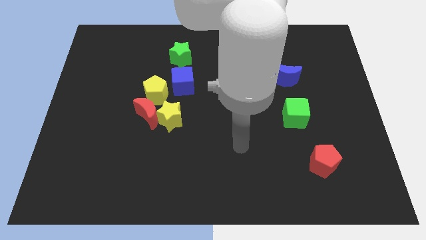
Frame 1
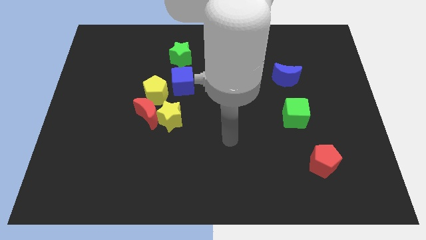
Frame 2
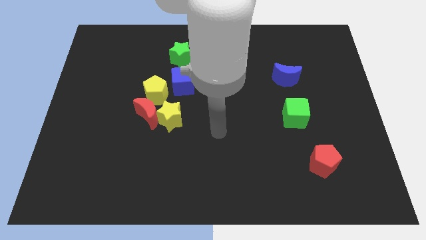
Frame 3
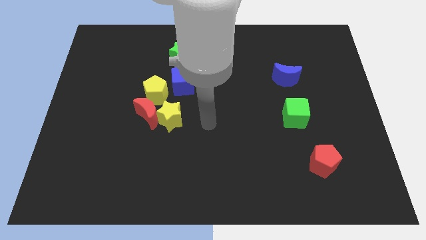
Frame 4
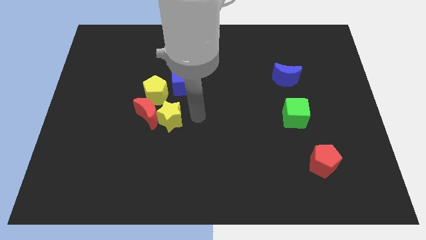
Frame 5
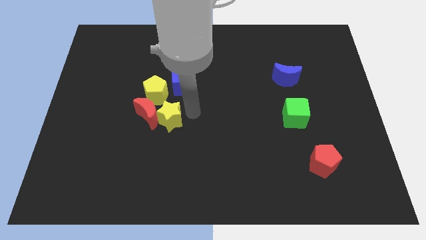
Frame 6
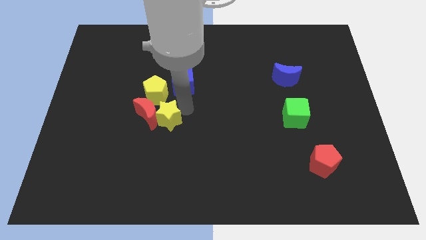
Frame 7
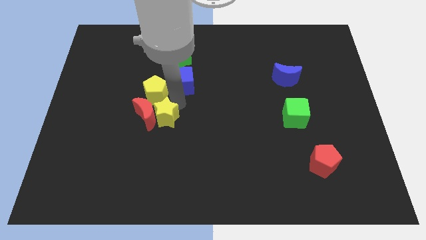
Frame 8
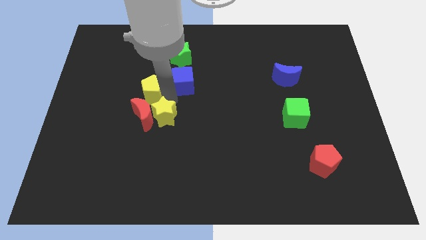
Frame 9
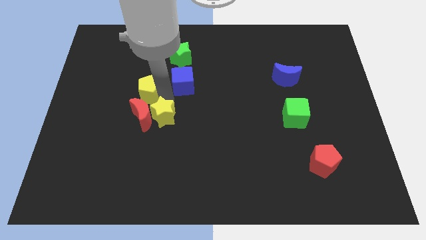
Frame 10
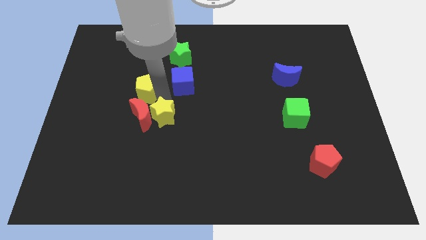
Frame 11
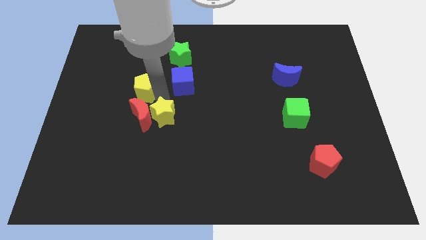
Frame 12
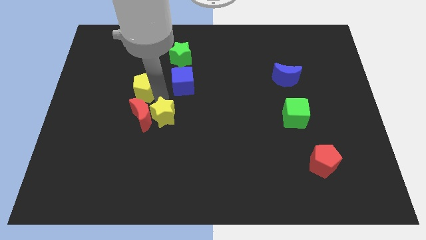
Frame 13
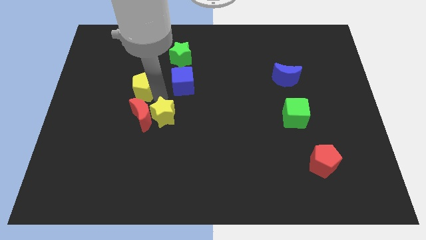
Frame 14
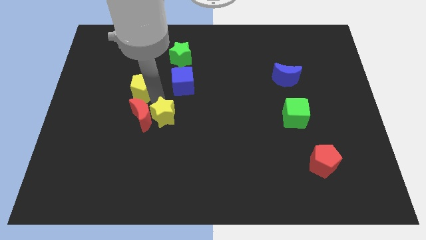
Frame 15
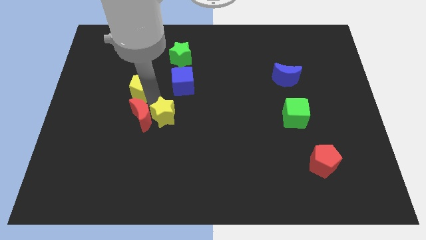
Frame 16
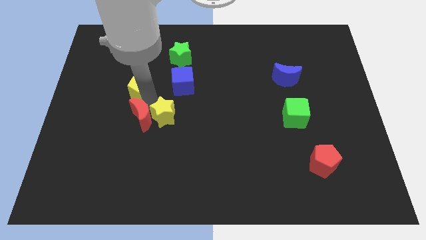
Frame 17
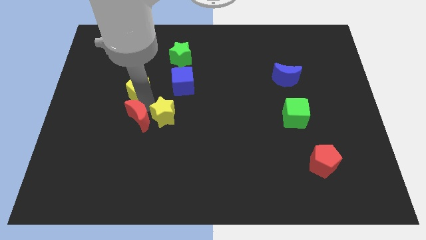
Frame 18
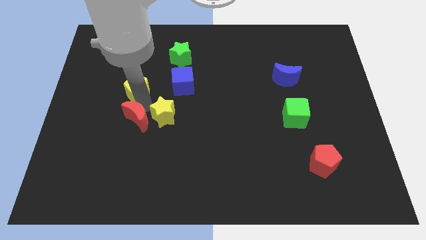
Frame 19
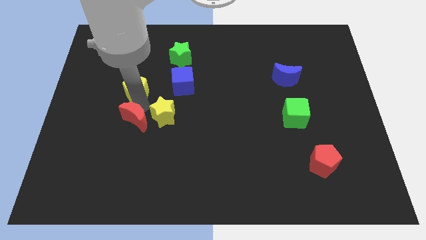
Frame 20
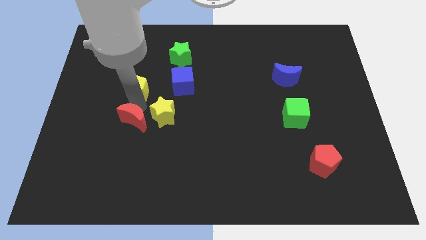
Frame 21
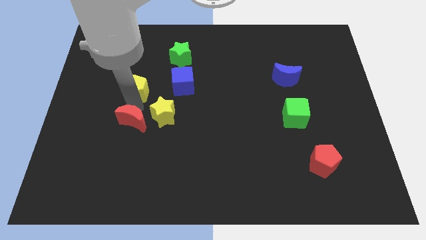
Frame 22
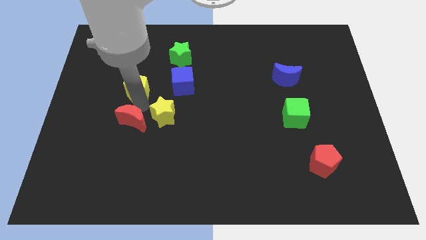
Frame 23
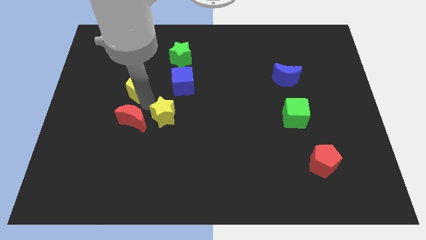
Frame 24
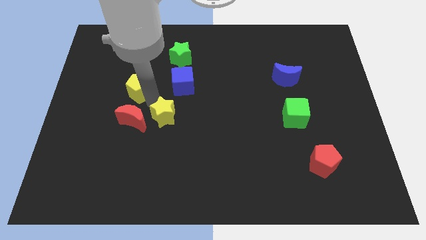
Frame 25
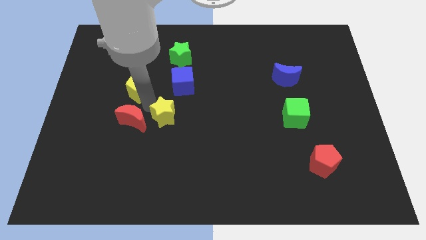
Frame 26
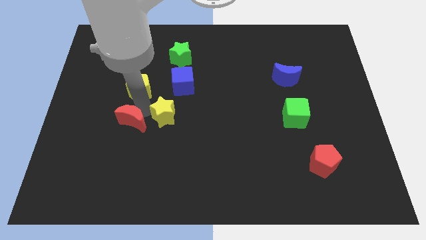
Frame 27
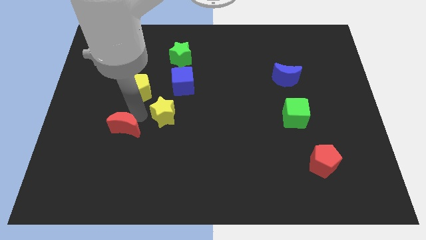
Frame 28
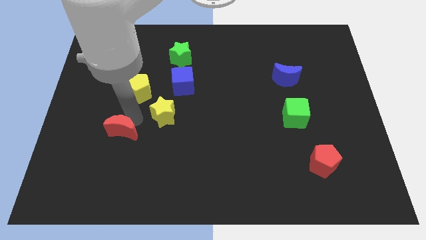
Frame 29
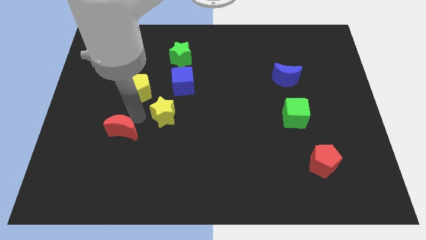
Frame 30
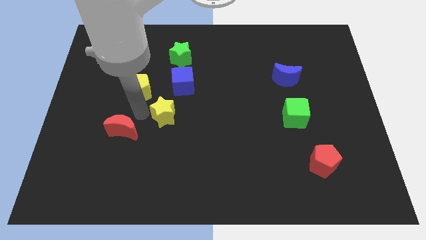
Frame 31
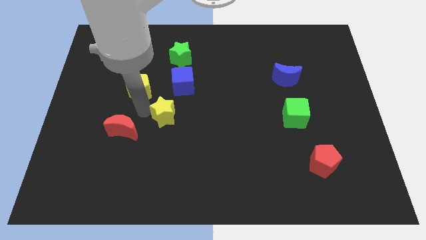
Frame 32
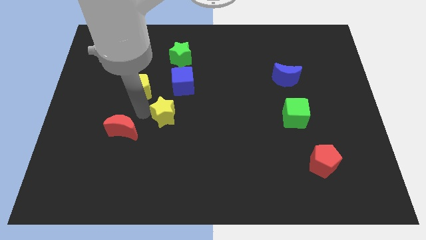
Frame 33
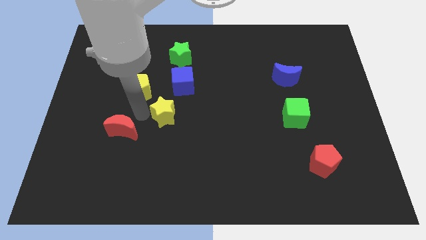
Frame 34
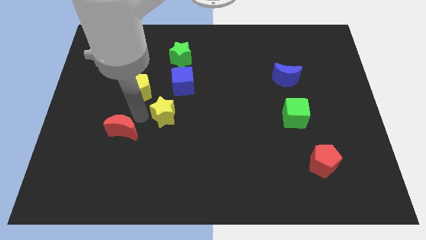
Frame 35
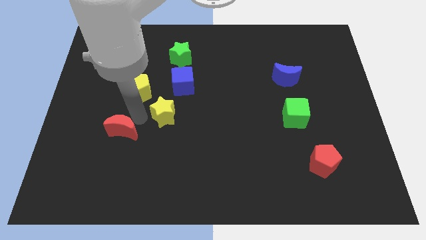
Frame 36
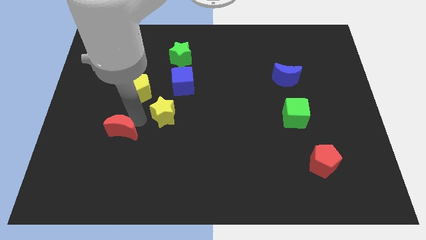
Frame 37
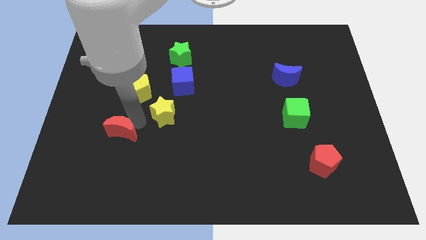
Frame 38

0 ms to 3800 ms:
separate the red moon from the yellow star and yellow pentagon

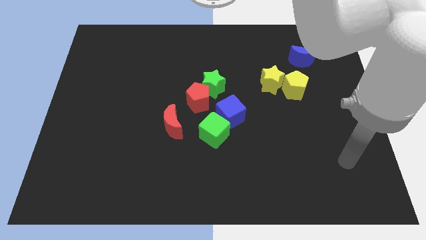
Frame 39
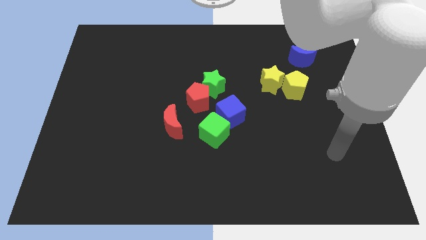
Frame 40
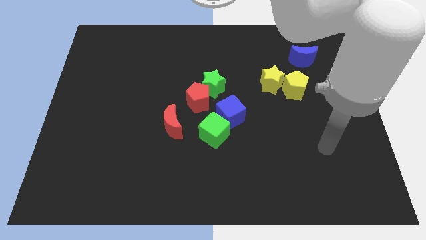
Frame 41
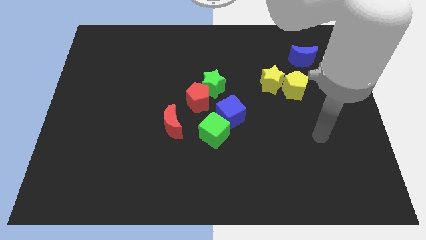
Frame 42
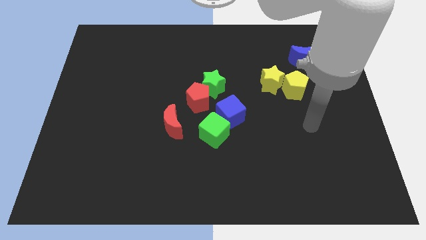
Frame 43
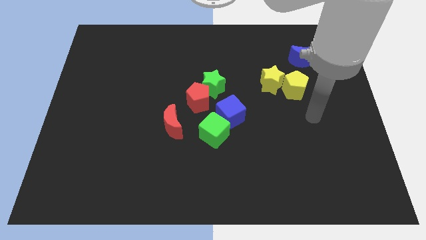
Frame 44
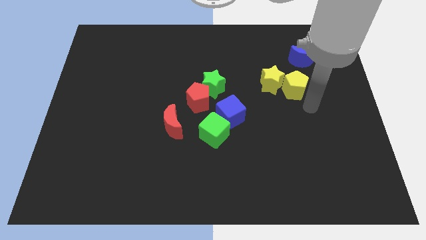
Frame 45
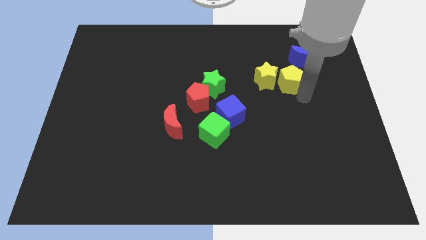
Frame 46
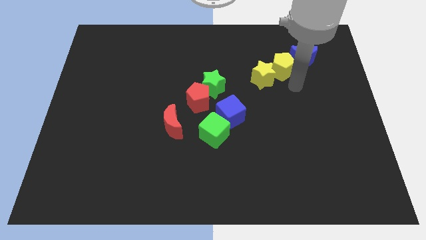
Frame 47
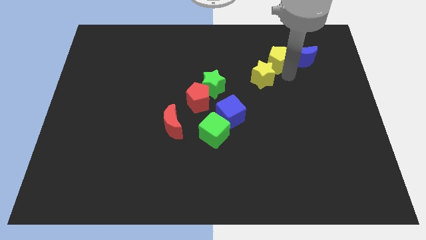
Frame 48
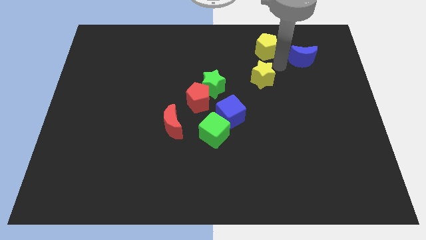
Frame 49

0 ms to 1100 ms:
separate the yellow star from the yellow pentagon

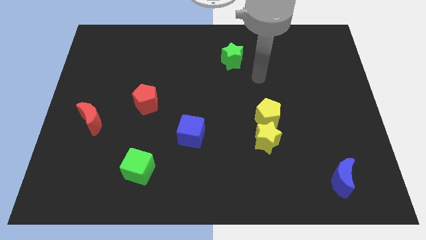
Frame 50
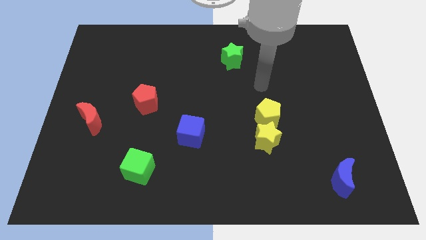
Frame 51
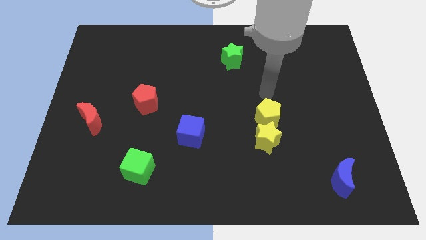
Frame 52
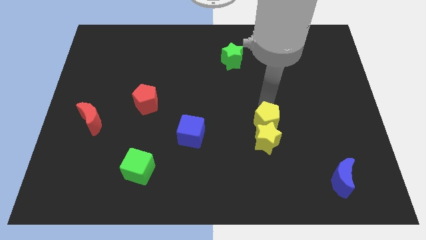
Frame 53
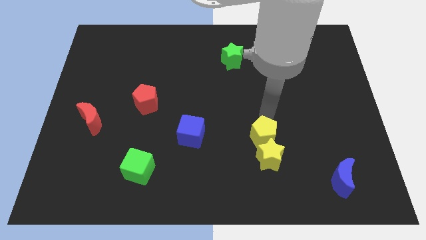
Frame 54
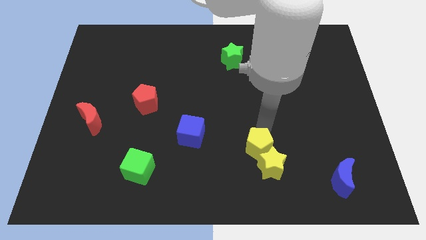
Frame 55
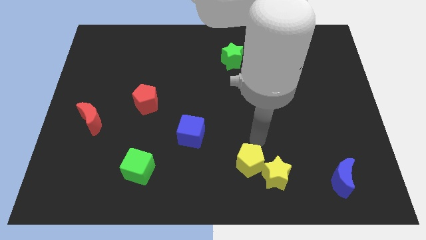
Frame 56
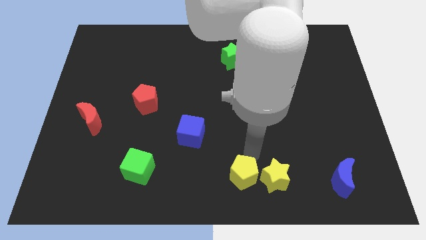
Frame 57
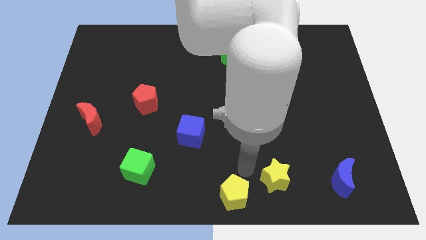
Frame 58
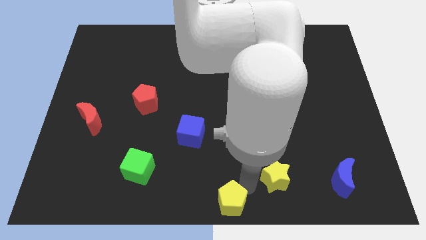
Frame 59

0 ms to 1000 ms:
pull the yellow star apart from the yellow pentagon

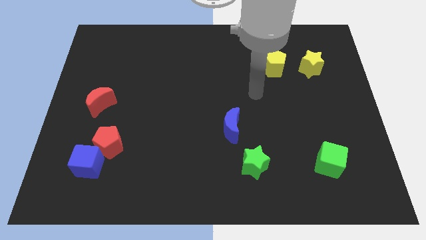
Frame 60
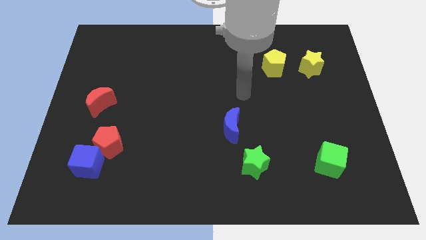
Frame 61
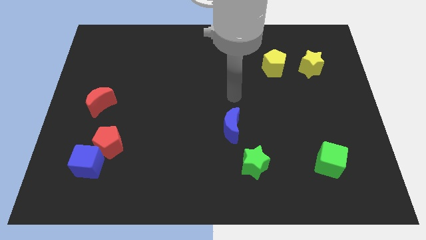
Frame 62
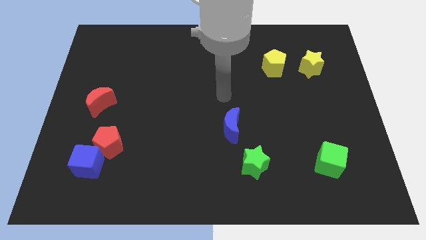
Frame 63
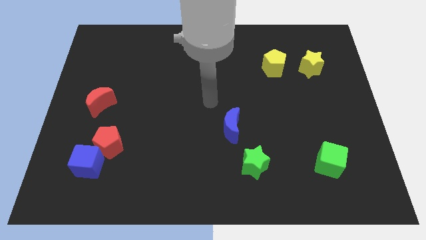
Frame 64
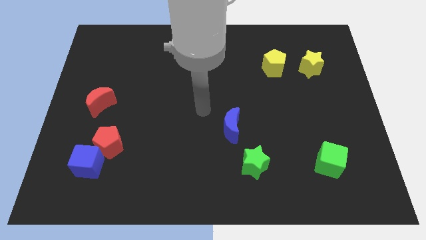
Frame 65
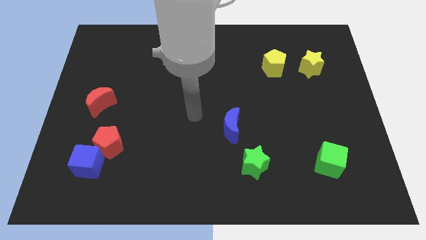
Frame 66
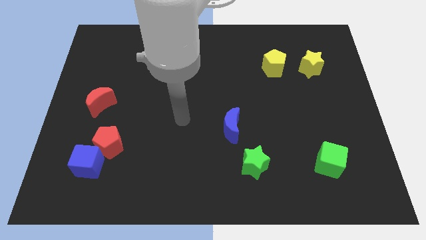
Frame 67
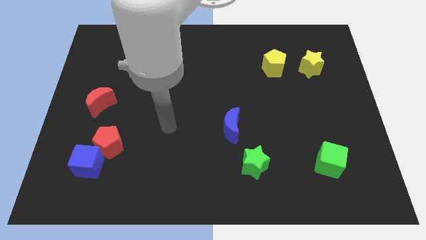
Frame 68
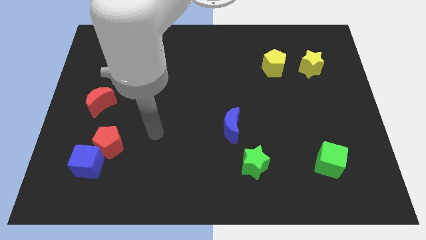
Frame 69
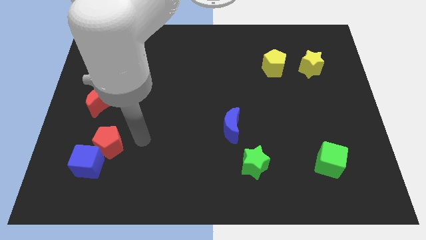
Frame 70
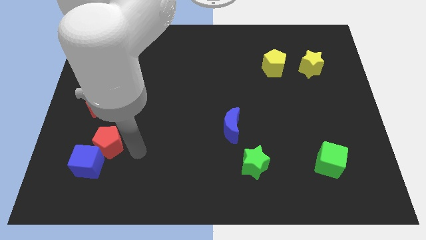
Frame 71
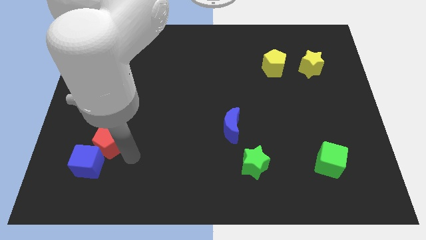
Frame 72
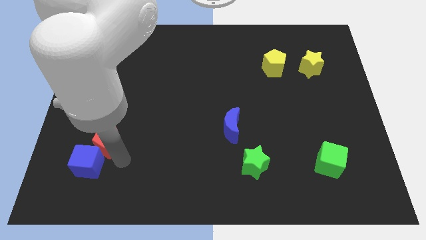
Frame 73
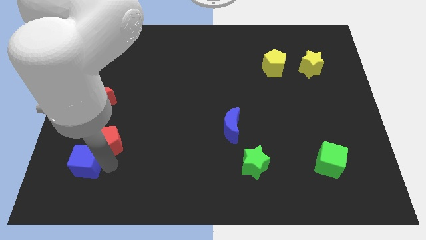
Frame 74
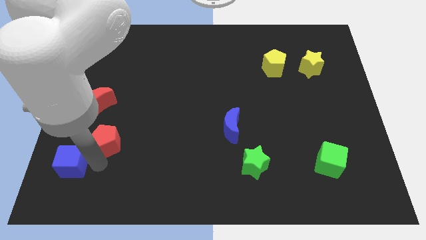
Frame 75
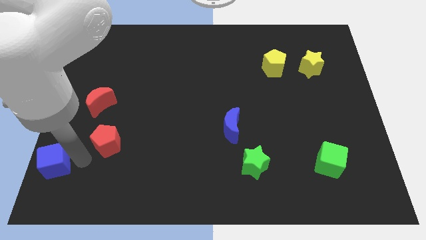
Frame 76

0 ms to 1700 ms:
pull the red pentagon apart from the blue cube

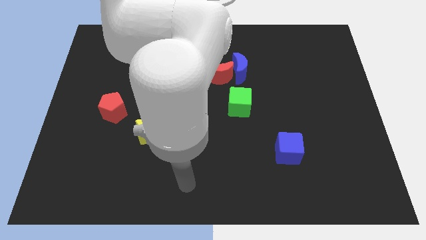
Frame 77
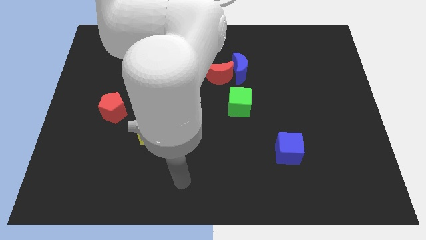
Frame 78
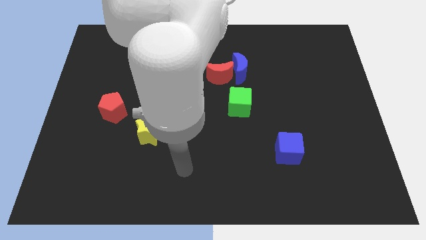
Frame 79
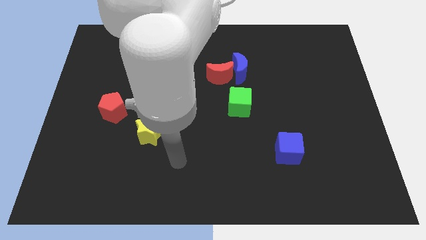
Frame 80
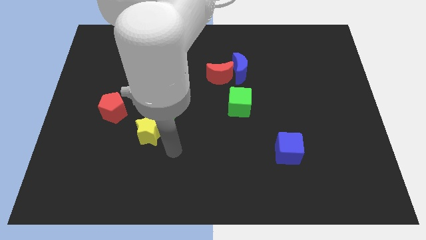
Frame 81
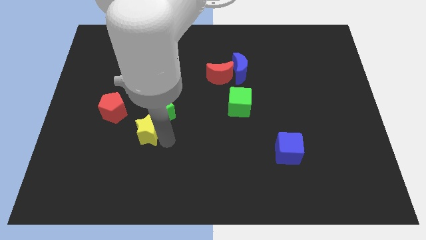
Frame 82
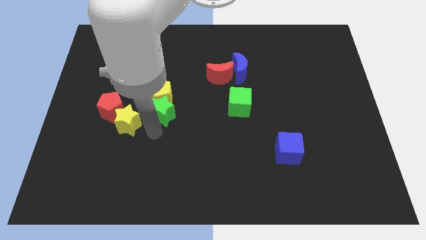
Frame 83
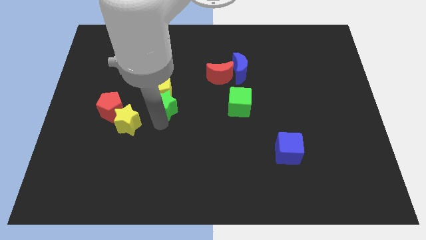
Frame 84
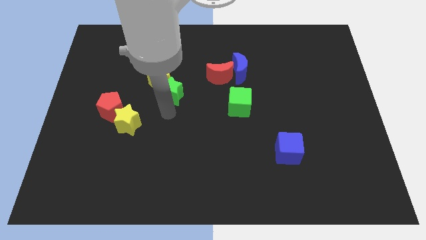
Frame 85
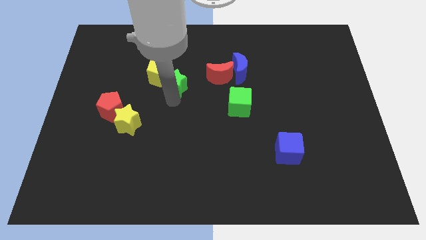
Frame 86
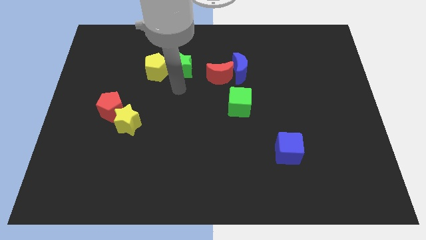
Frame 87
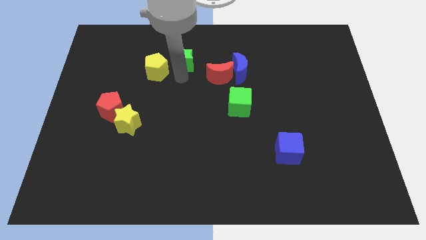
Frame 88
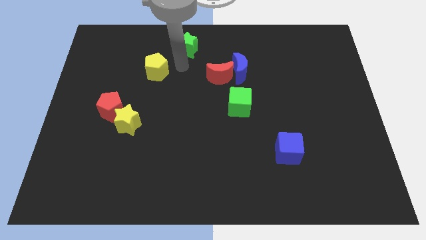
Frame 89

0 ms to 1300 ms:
separate the yellow pentagon from the green star

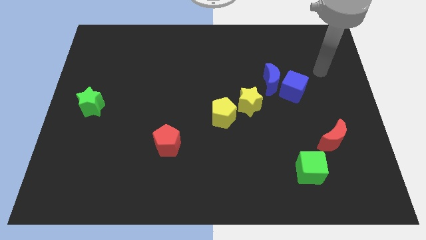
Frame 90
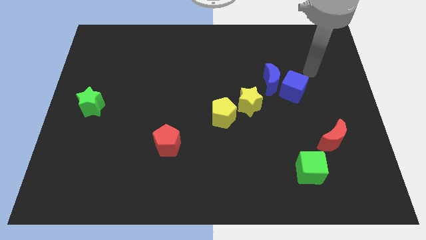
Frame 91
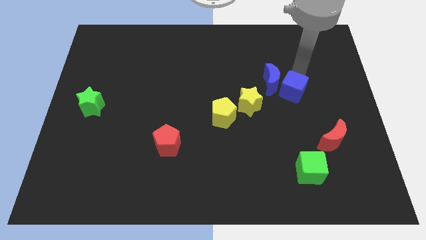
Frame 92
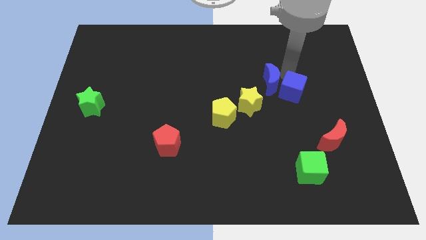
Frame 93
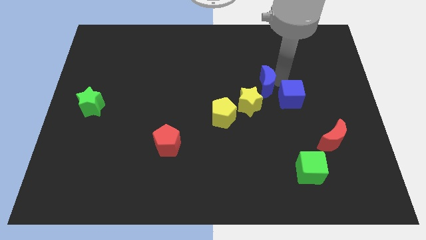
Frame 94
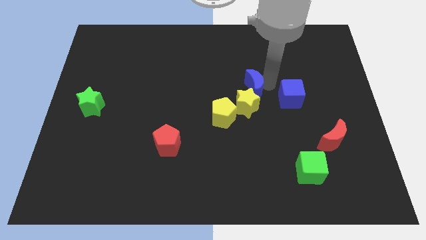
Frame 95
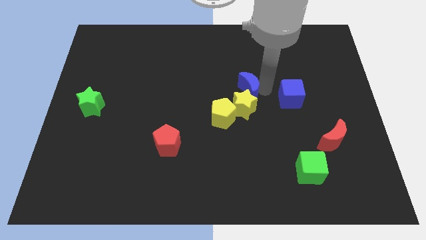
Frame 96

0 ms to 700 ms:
pull the blue cube apart from the blue moon
